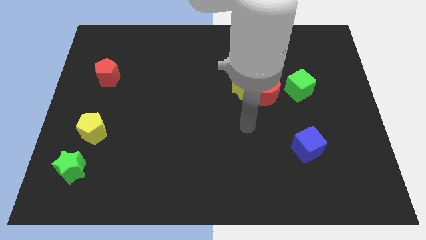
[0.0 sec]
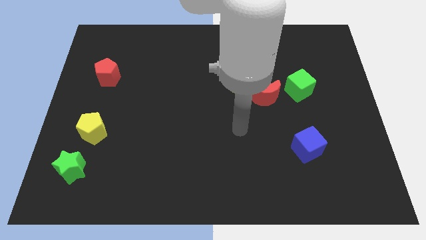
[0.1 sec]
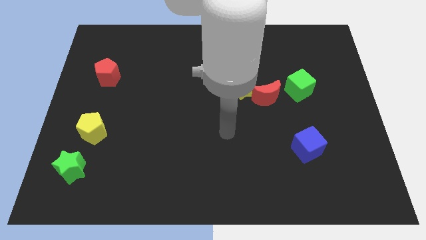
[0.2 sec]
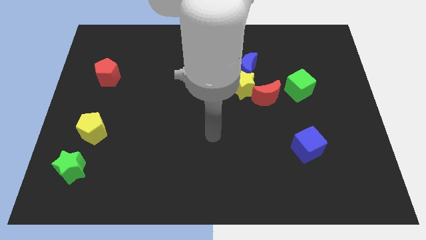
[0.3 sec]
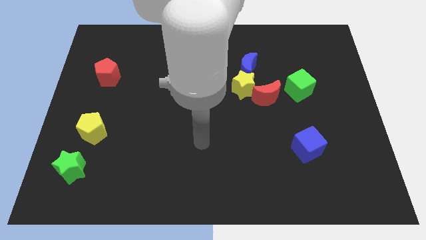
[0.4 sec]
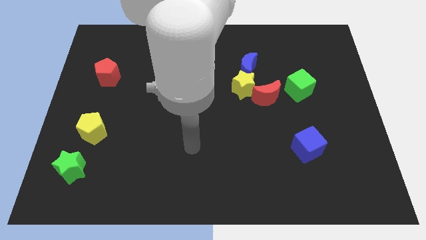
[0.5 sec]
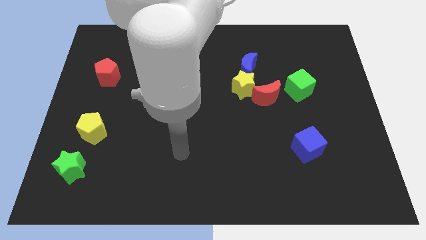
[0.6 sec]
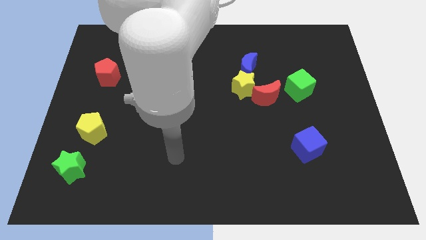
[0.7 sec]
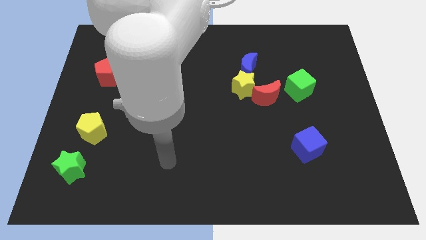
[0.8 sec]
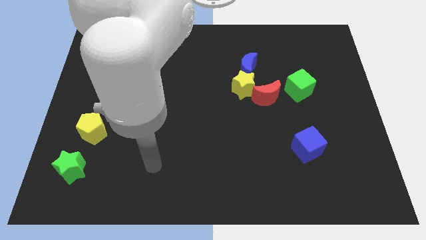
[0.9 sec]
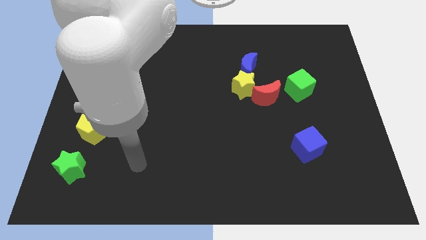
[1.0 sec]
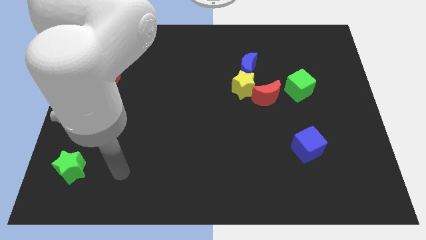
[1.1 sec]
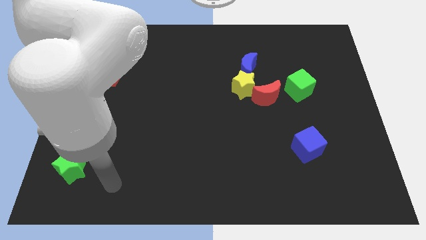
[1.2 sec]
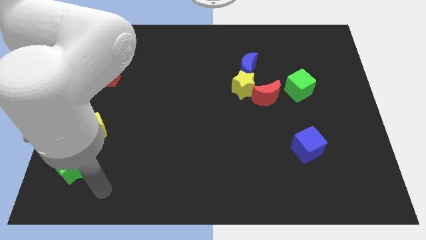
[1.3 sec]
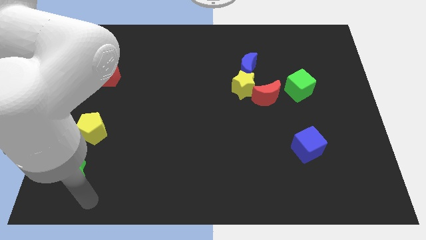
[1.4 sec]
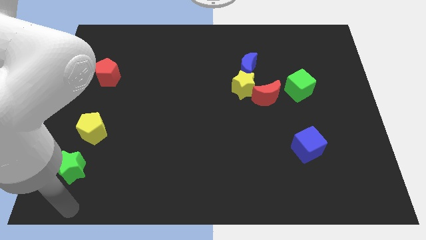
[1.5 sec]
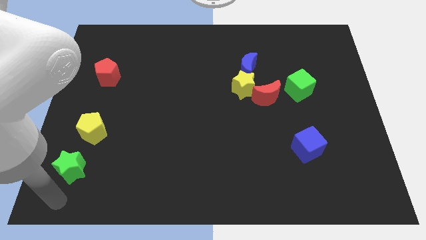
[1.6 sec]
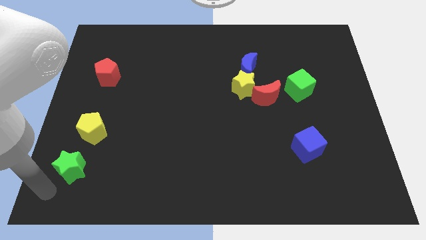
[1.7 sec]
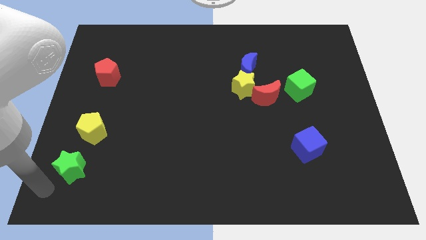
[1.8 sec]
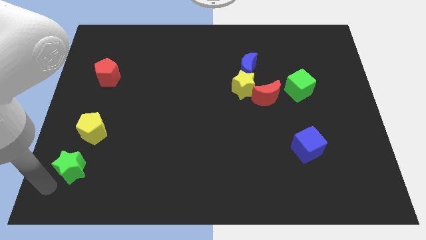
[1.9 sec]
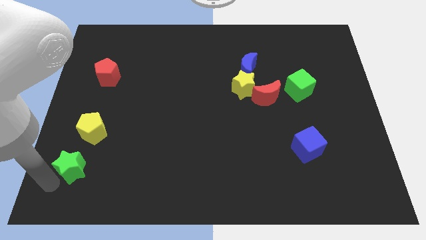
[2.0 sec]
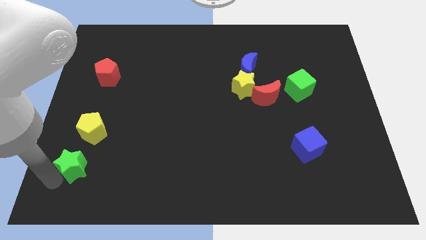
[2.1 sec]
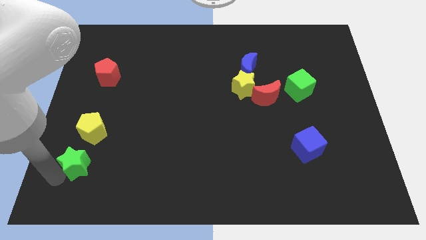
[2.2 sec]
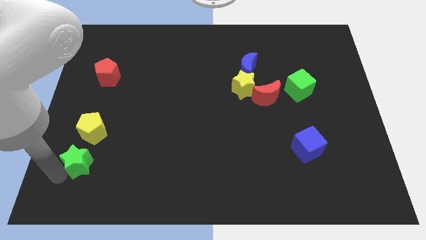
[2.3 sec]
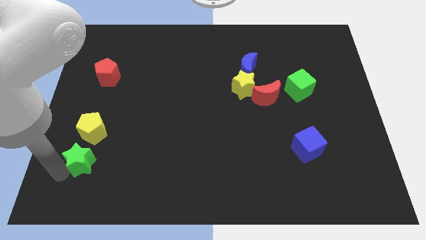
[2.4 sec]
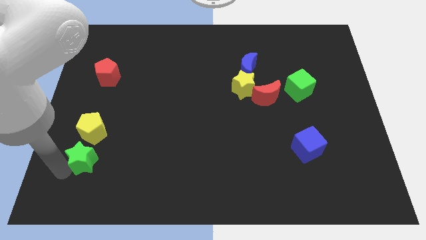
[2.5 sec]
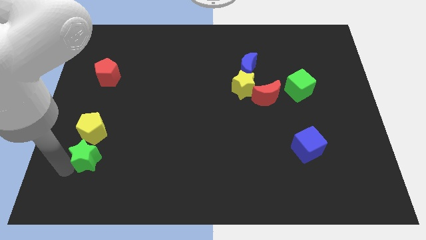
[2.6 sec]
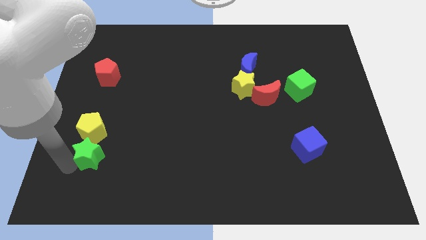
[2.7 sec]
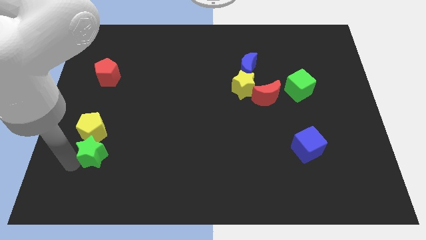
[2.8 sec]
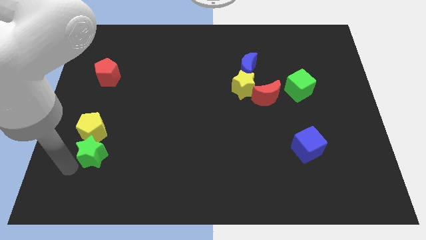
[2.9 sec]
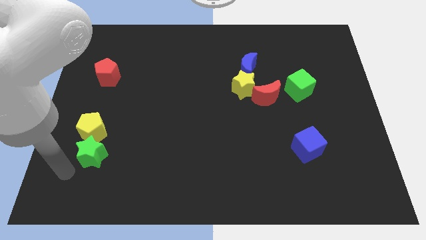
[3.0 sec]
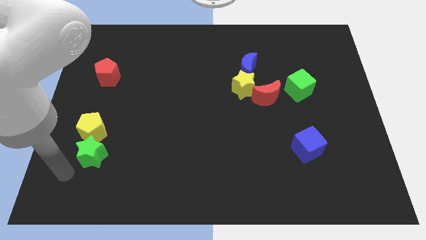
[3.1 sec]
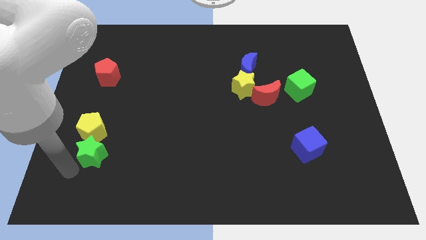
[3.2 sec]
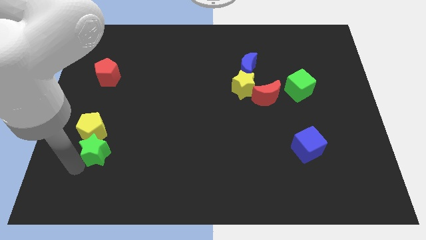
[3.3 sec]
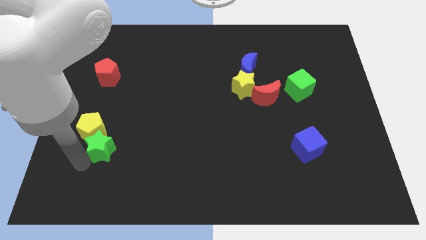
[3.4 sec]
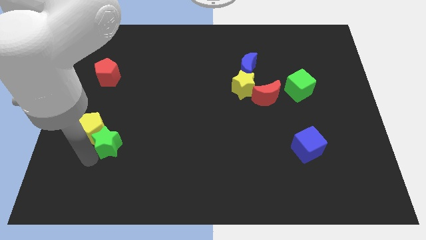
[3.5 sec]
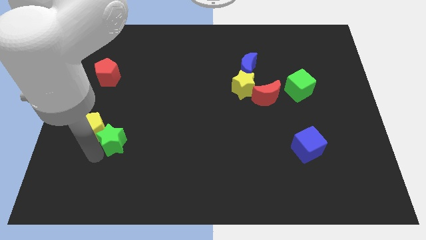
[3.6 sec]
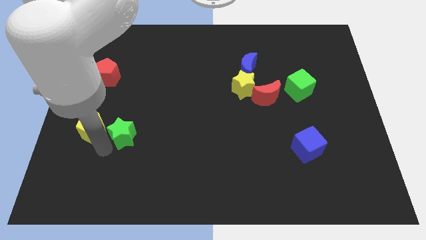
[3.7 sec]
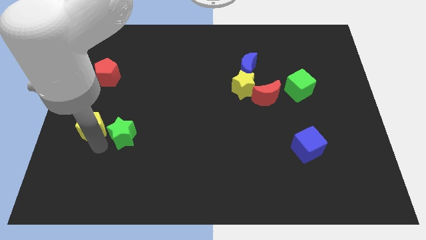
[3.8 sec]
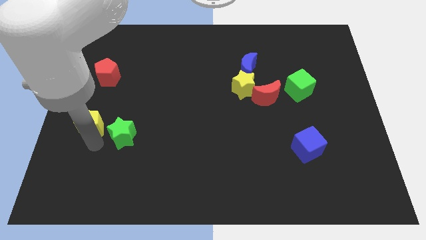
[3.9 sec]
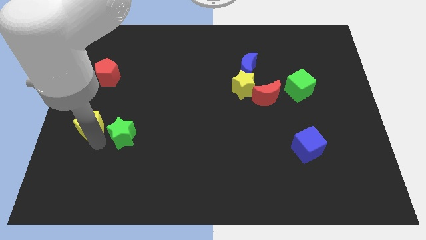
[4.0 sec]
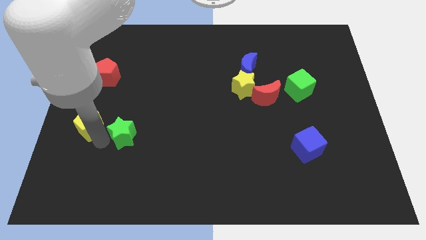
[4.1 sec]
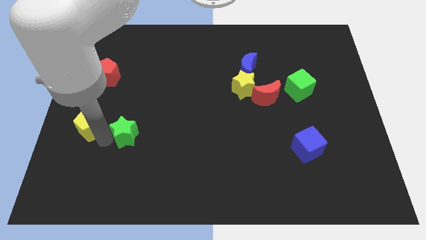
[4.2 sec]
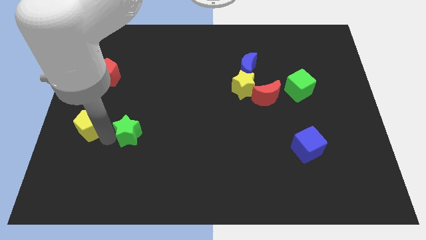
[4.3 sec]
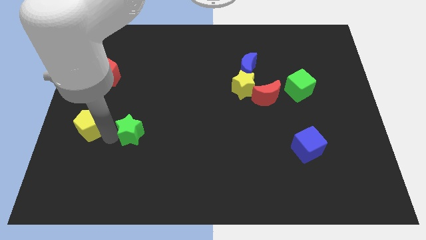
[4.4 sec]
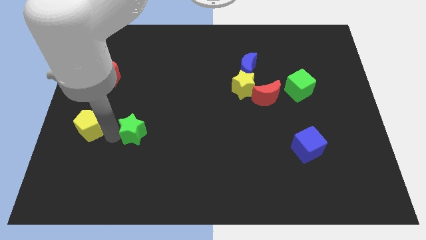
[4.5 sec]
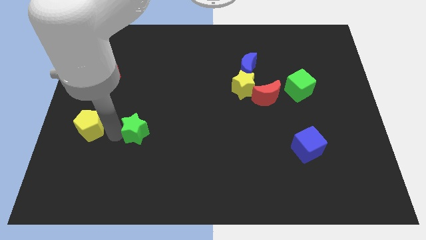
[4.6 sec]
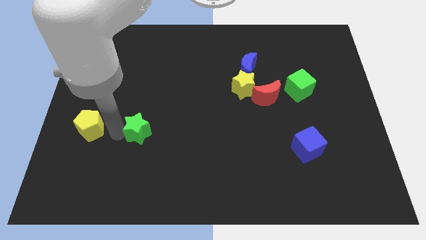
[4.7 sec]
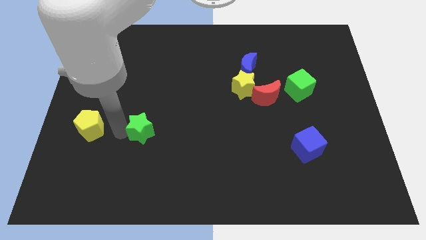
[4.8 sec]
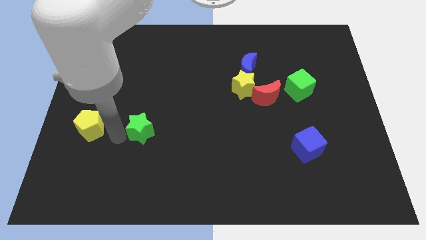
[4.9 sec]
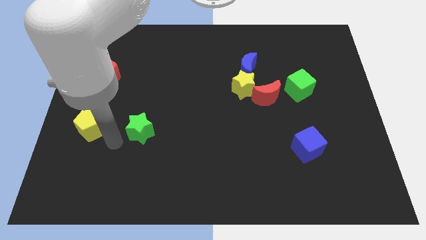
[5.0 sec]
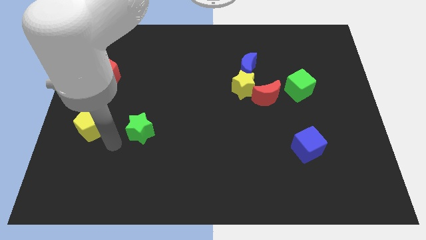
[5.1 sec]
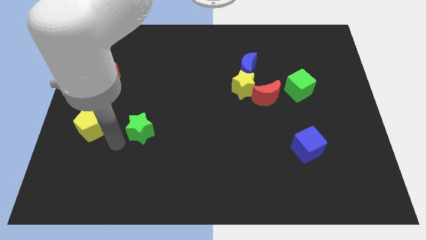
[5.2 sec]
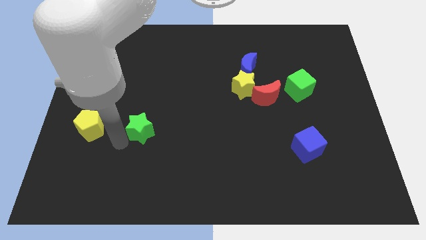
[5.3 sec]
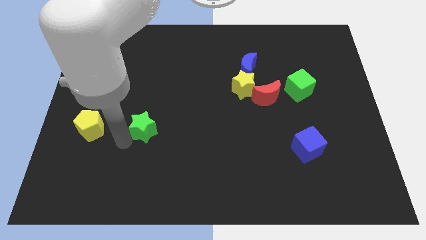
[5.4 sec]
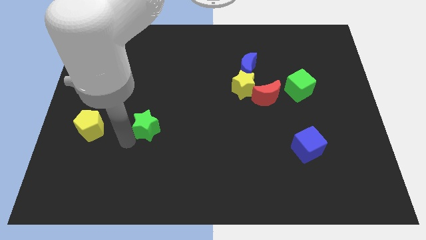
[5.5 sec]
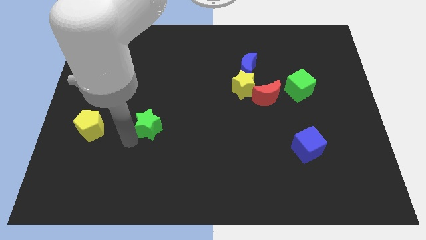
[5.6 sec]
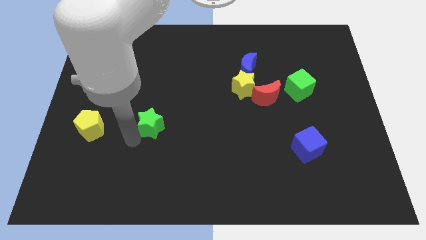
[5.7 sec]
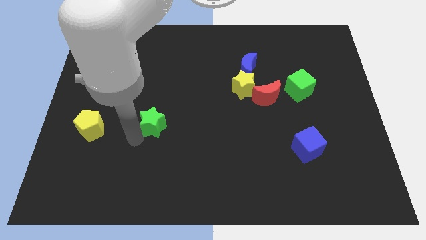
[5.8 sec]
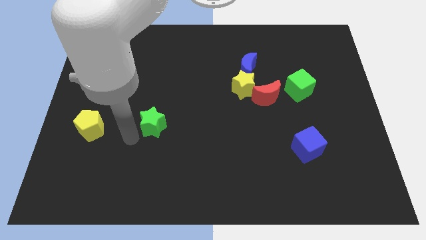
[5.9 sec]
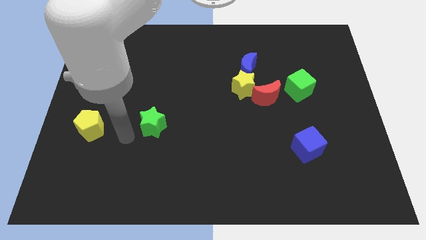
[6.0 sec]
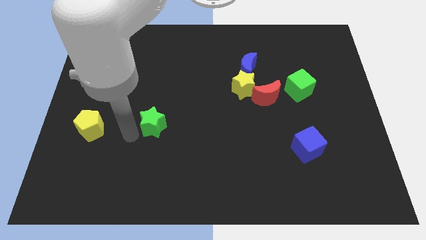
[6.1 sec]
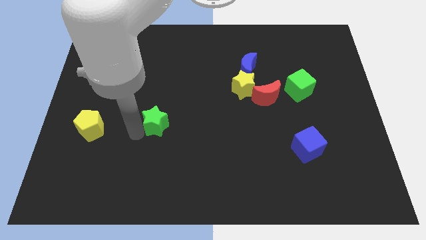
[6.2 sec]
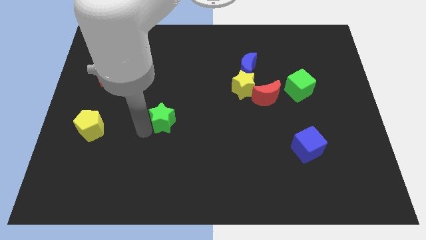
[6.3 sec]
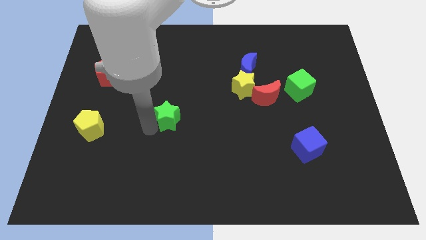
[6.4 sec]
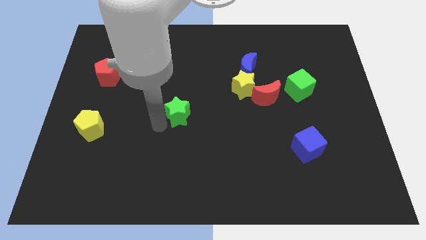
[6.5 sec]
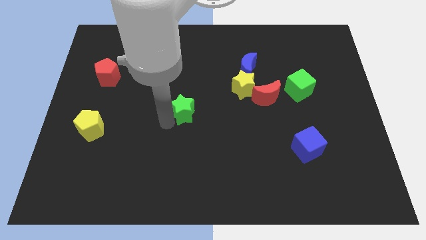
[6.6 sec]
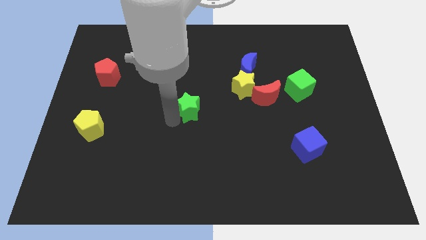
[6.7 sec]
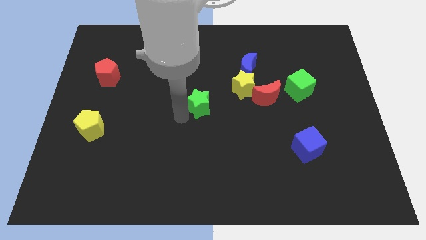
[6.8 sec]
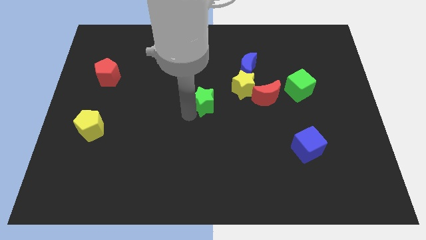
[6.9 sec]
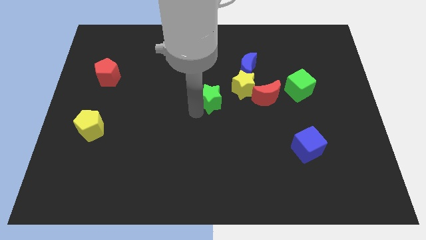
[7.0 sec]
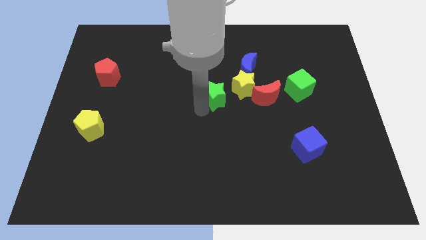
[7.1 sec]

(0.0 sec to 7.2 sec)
push the green star to the bottom left side of the blue moon
